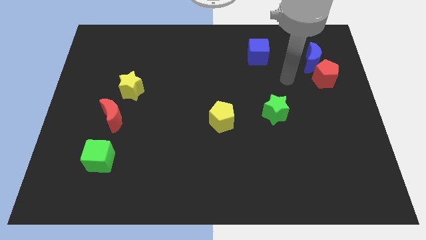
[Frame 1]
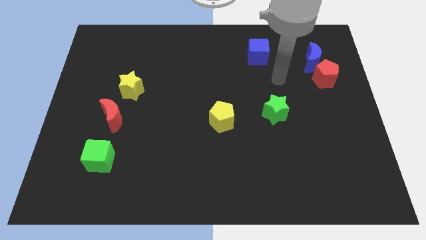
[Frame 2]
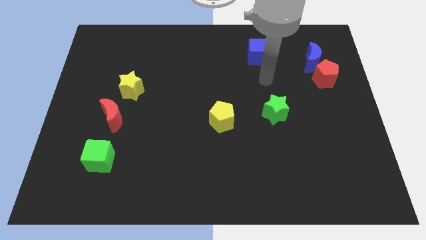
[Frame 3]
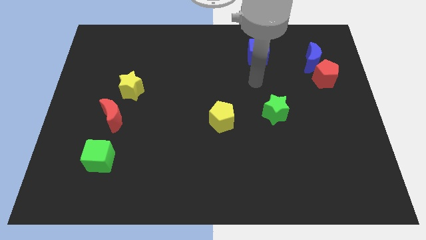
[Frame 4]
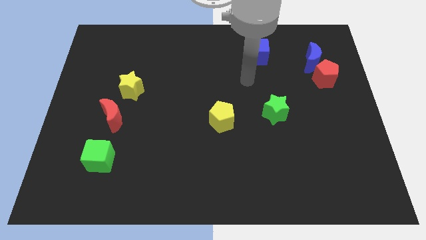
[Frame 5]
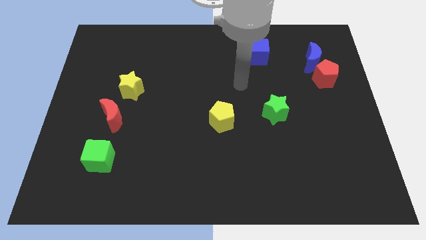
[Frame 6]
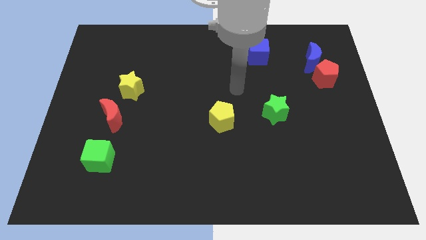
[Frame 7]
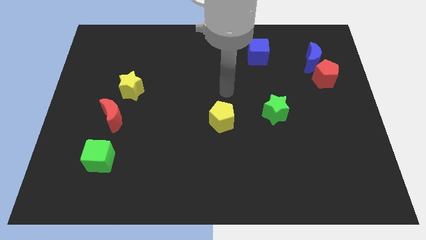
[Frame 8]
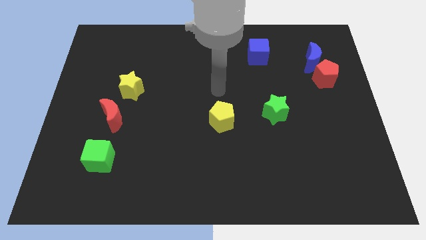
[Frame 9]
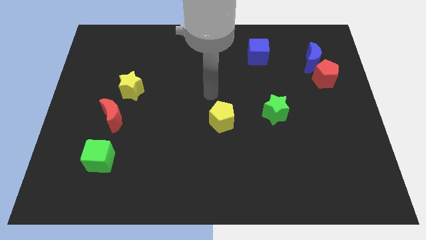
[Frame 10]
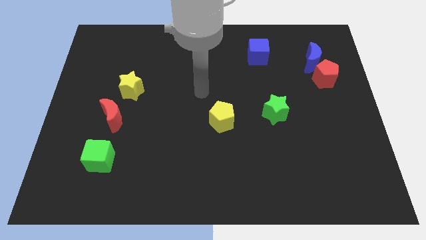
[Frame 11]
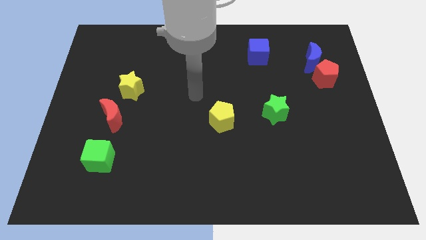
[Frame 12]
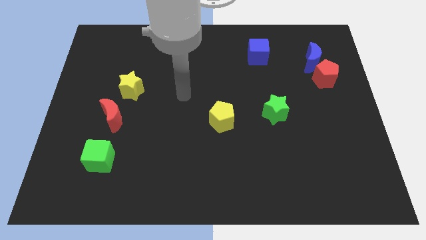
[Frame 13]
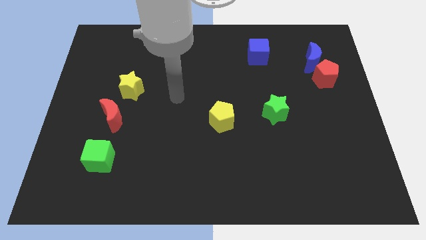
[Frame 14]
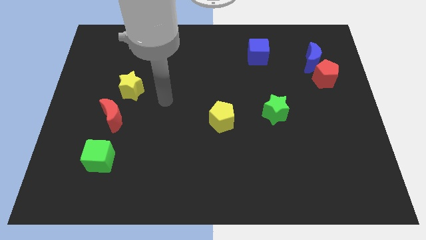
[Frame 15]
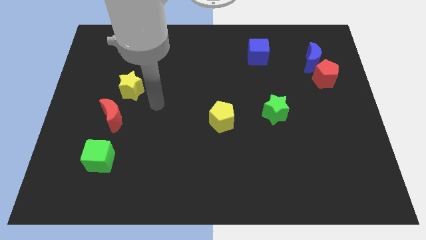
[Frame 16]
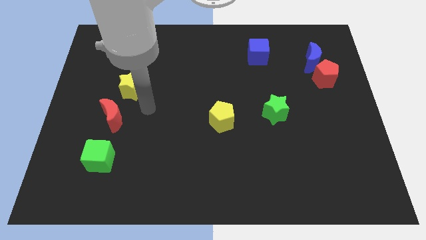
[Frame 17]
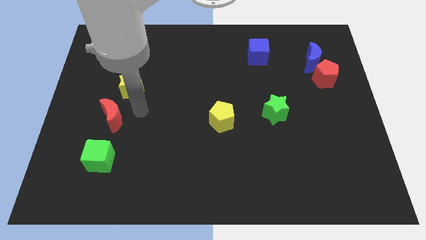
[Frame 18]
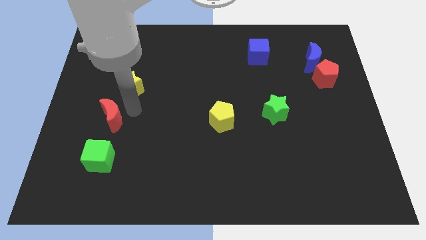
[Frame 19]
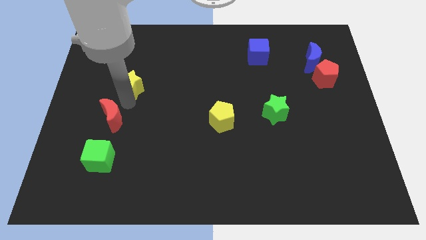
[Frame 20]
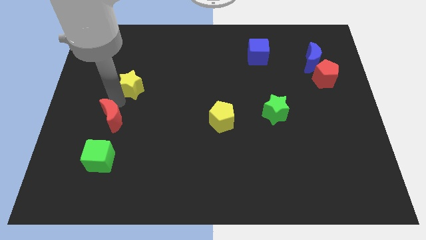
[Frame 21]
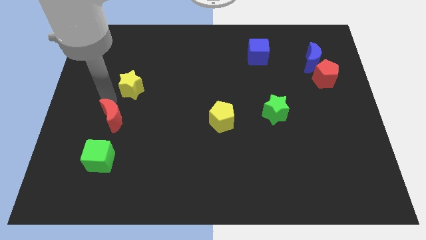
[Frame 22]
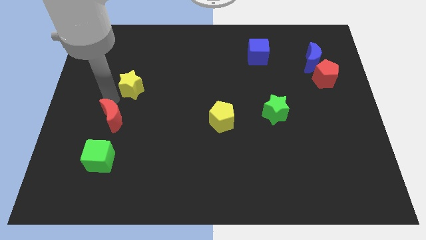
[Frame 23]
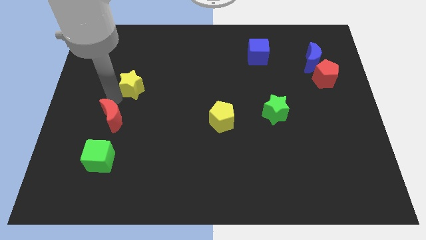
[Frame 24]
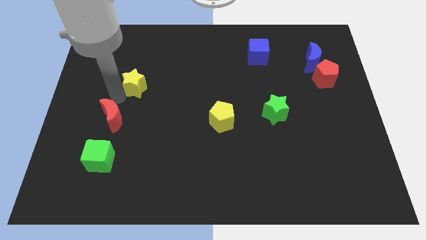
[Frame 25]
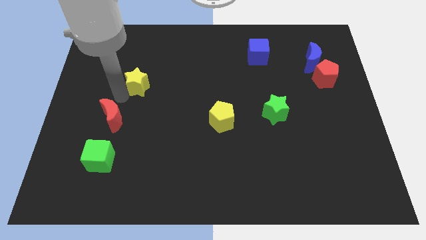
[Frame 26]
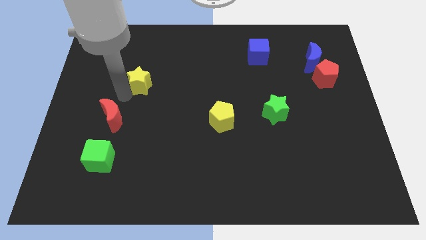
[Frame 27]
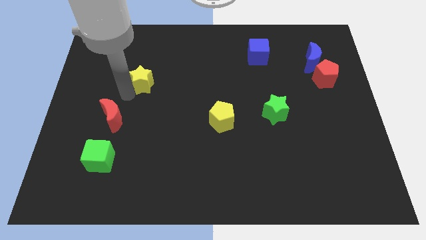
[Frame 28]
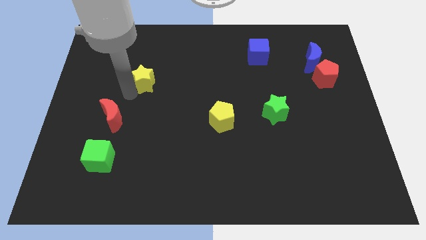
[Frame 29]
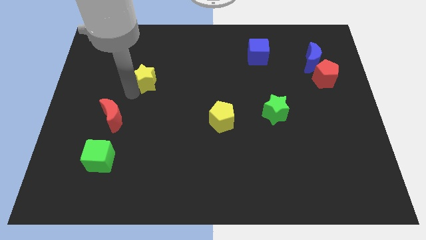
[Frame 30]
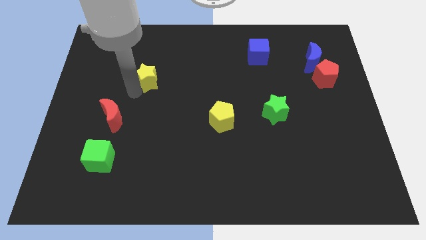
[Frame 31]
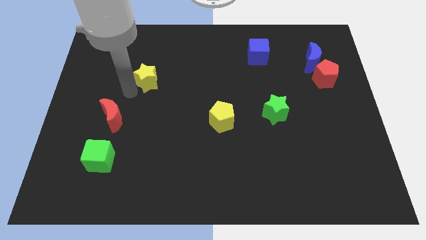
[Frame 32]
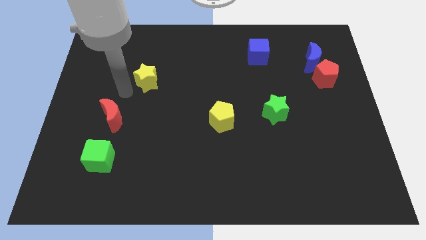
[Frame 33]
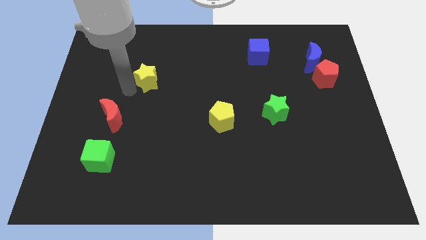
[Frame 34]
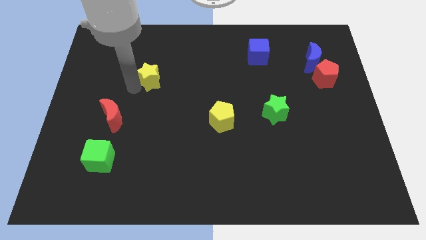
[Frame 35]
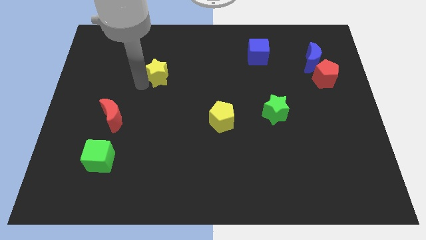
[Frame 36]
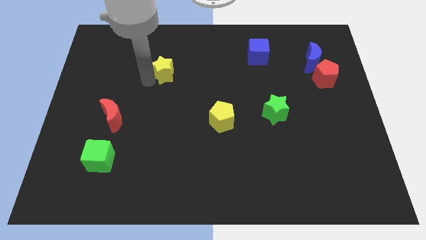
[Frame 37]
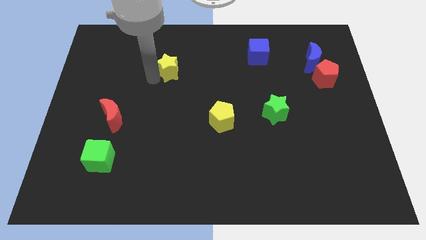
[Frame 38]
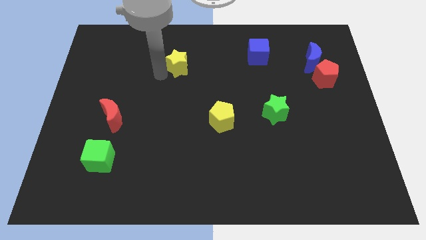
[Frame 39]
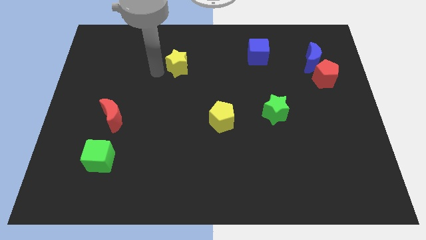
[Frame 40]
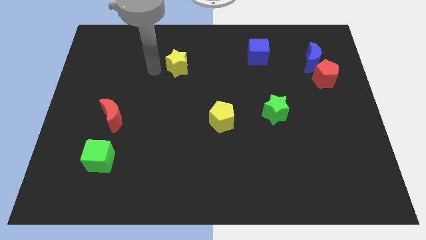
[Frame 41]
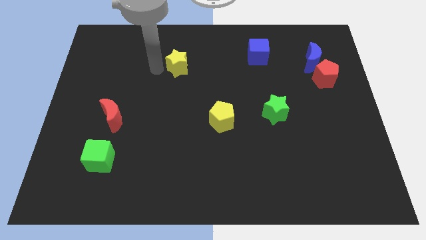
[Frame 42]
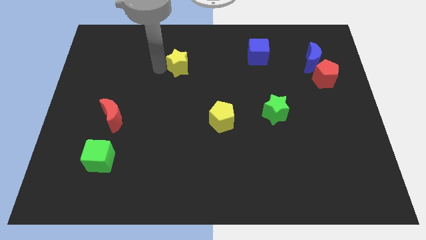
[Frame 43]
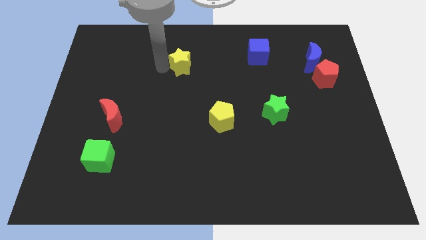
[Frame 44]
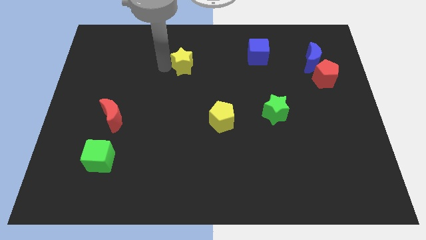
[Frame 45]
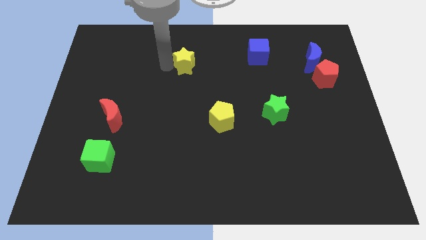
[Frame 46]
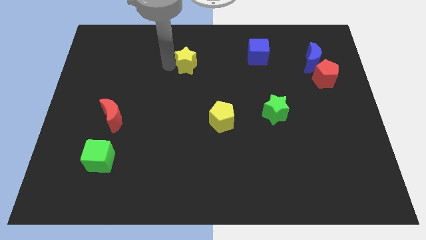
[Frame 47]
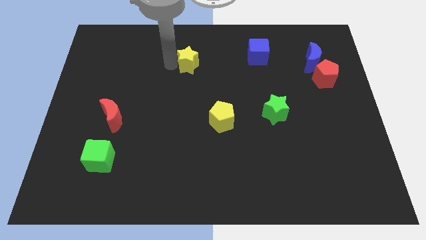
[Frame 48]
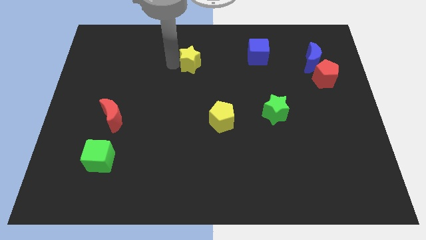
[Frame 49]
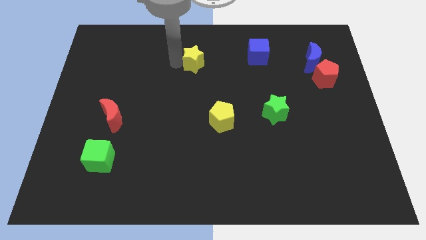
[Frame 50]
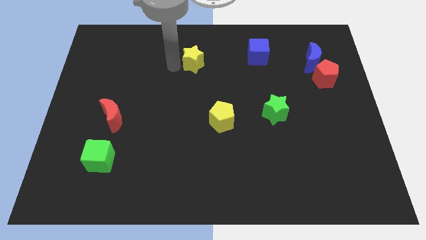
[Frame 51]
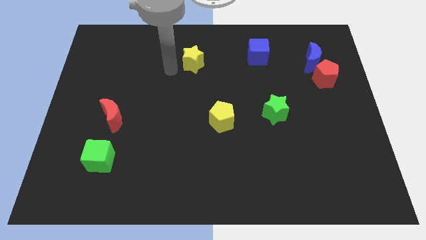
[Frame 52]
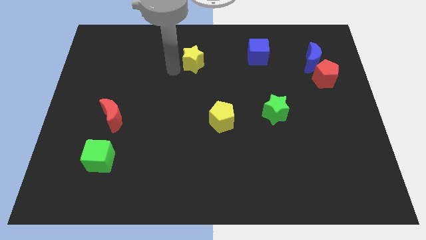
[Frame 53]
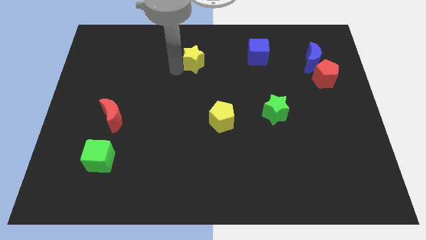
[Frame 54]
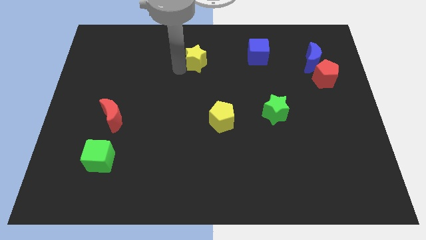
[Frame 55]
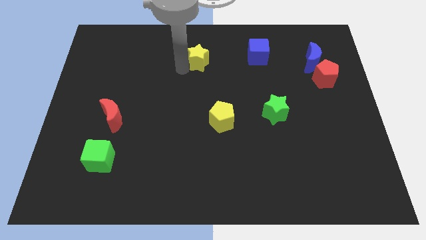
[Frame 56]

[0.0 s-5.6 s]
put the yellow star to the left of the blue cube
